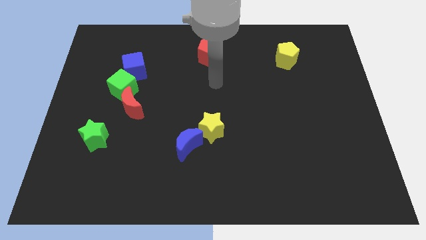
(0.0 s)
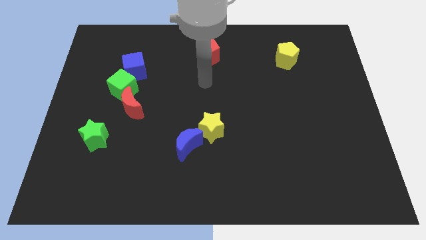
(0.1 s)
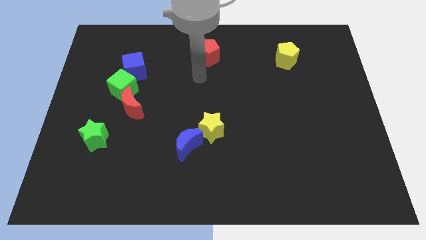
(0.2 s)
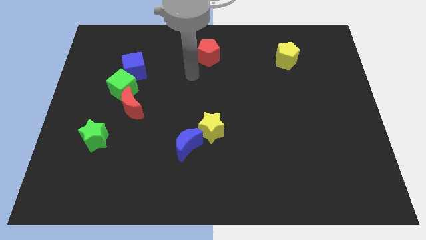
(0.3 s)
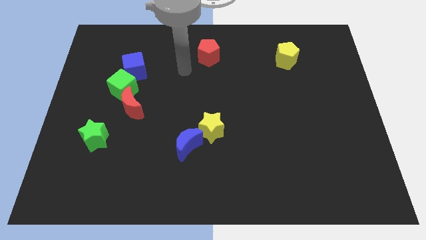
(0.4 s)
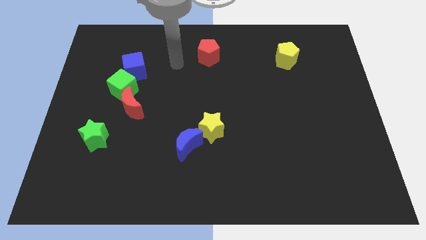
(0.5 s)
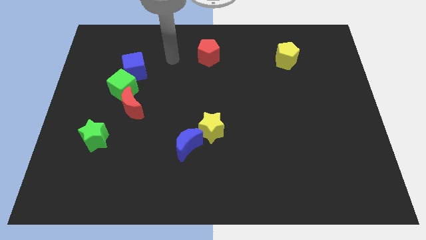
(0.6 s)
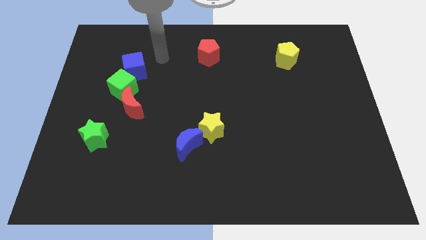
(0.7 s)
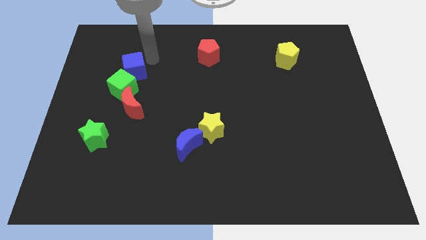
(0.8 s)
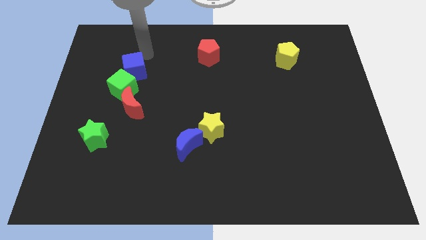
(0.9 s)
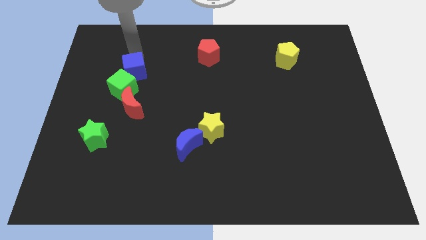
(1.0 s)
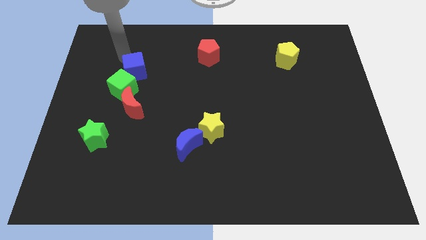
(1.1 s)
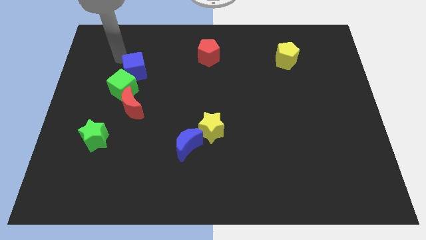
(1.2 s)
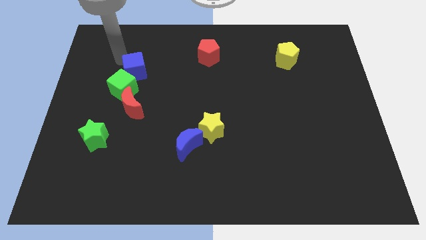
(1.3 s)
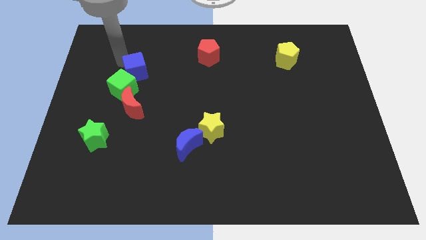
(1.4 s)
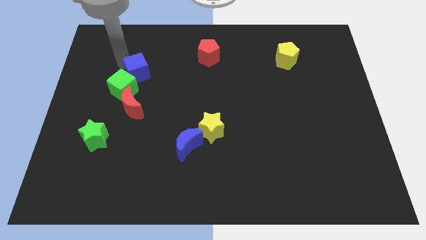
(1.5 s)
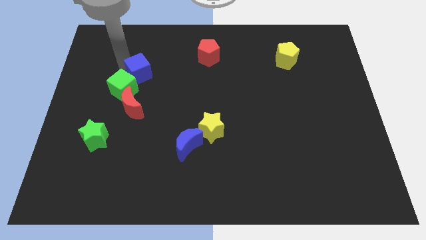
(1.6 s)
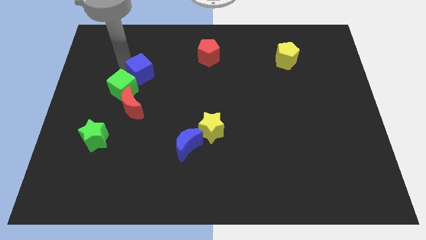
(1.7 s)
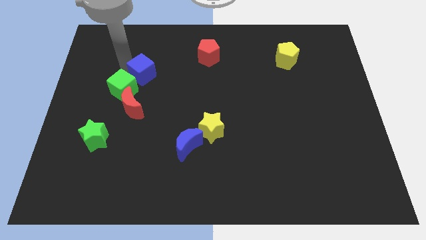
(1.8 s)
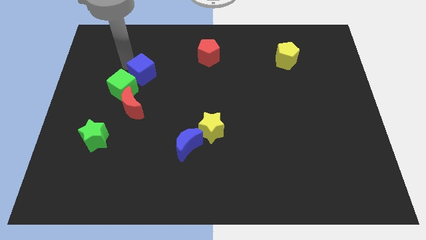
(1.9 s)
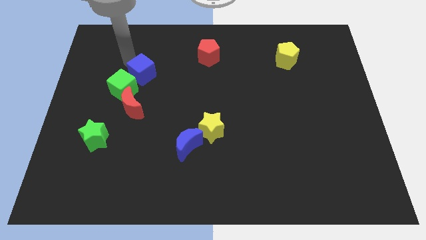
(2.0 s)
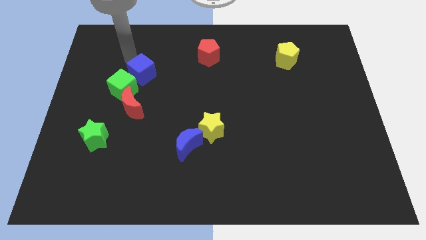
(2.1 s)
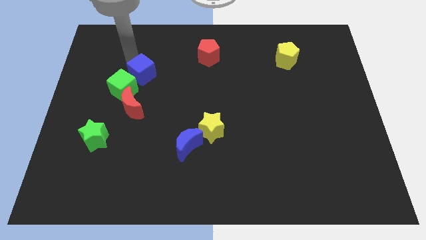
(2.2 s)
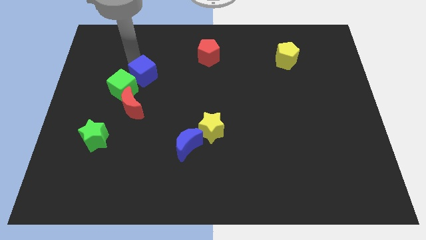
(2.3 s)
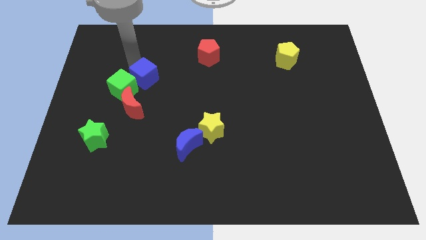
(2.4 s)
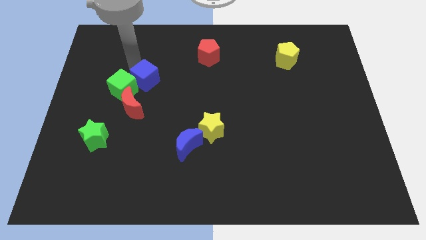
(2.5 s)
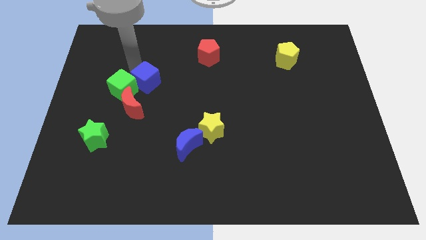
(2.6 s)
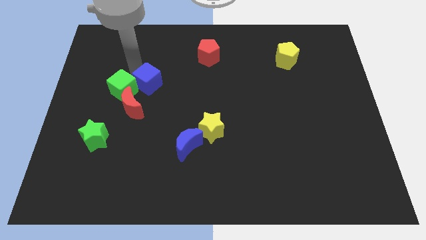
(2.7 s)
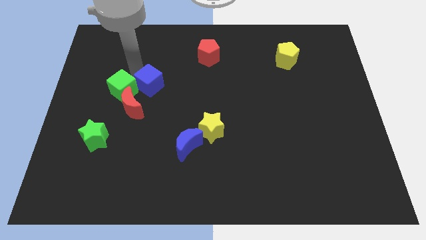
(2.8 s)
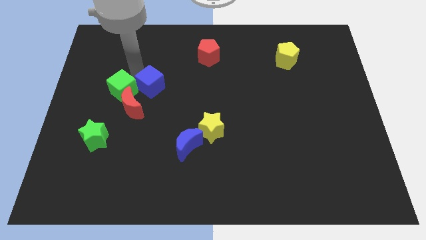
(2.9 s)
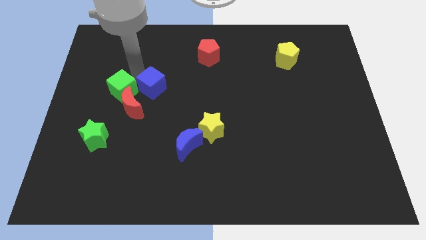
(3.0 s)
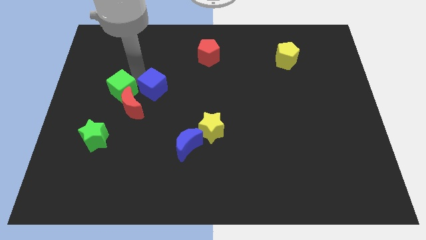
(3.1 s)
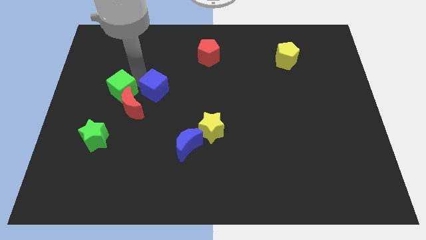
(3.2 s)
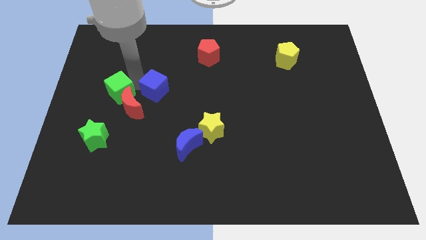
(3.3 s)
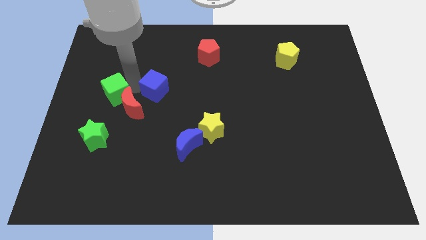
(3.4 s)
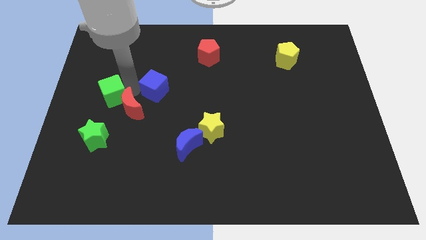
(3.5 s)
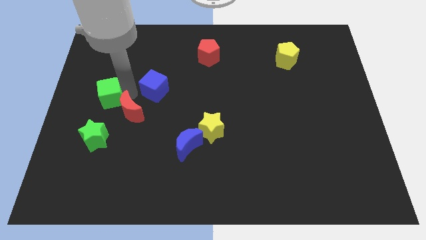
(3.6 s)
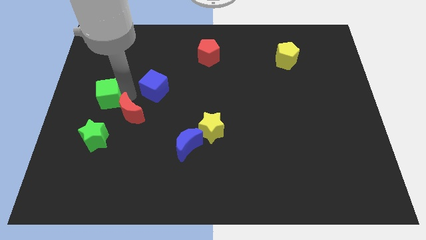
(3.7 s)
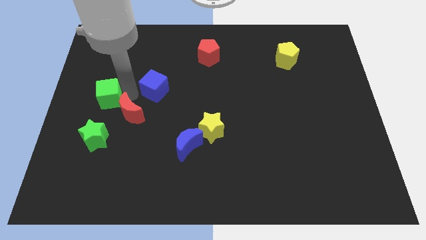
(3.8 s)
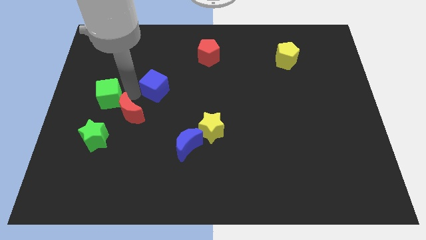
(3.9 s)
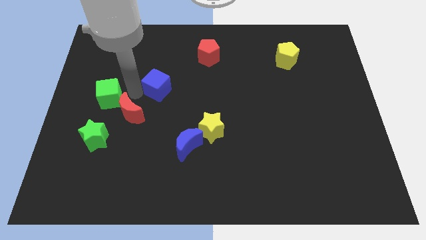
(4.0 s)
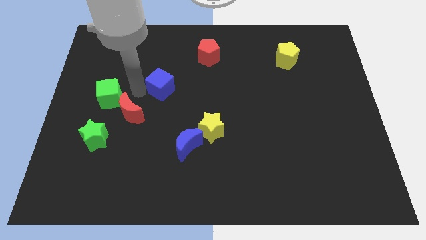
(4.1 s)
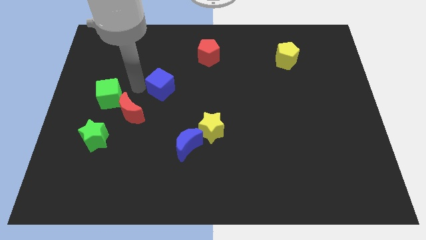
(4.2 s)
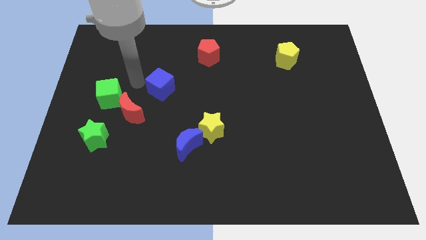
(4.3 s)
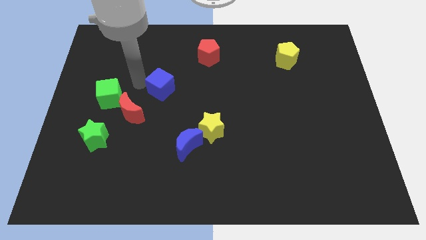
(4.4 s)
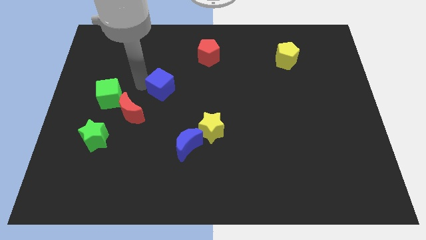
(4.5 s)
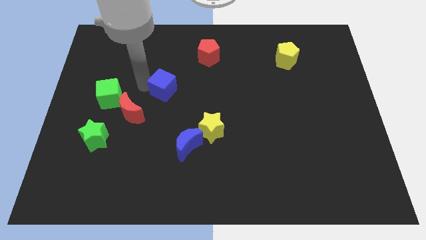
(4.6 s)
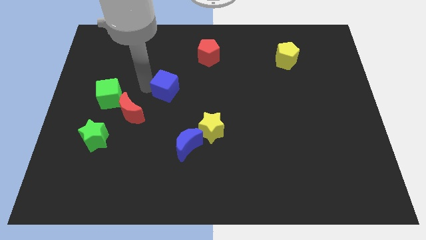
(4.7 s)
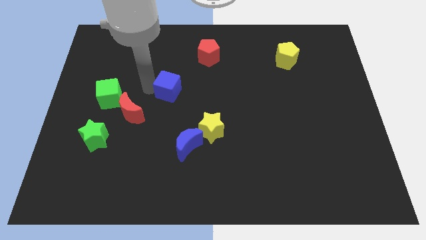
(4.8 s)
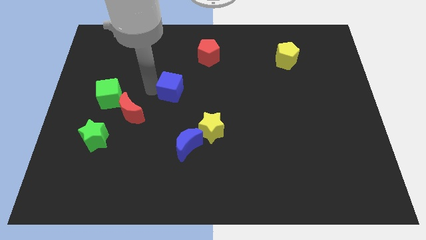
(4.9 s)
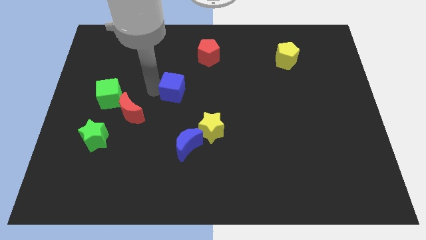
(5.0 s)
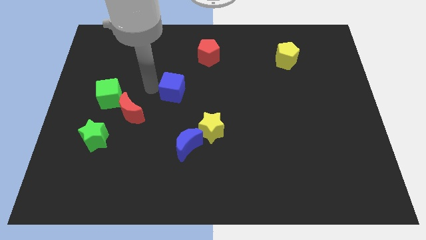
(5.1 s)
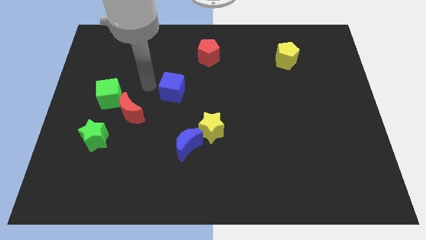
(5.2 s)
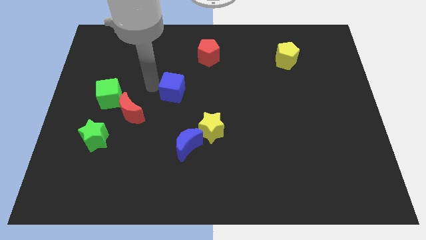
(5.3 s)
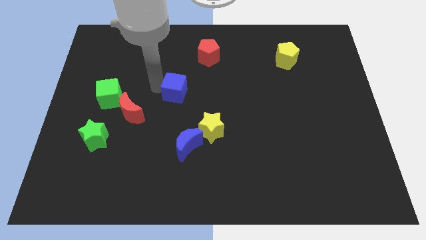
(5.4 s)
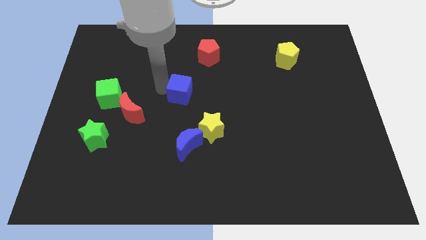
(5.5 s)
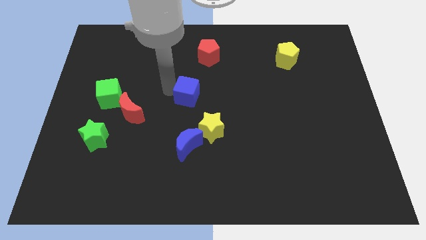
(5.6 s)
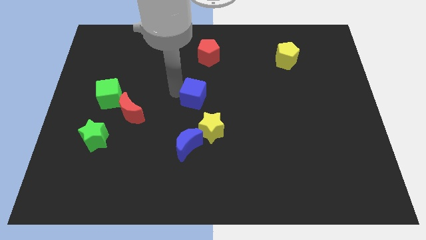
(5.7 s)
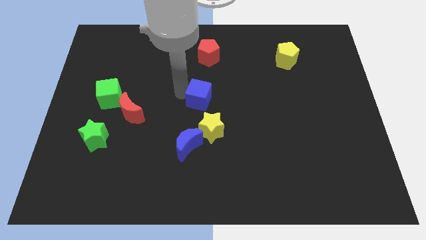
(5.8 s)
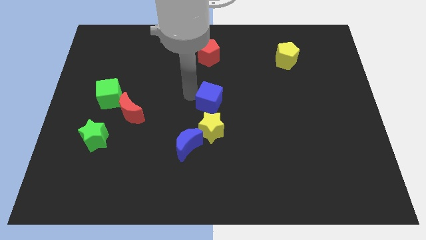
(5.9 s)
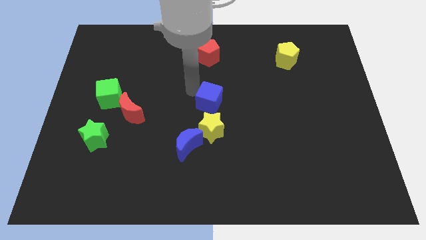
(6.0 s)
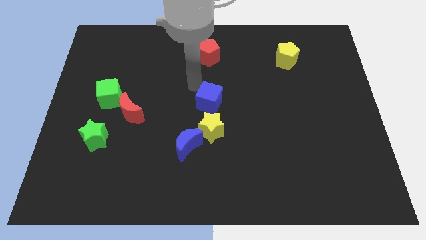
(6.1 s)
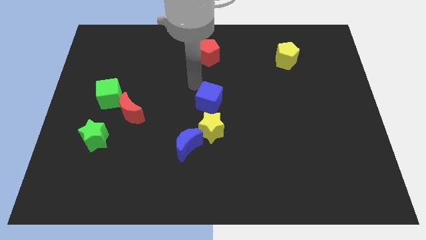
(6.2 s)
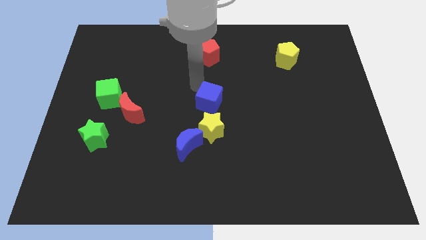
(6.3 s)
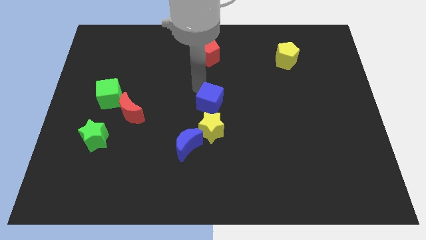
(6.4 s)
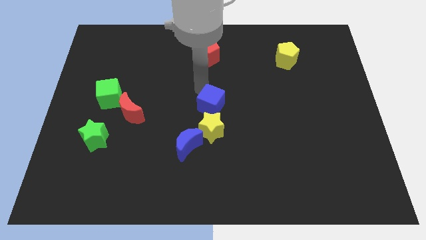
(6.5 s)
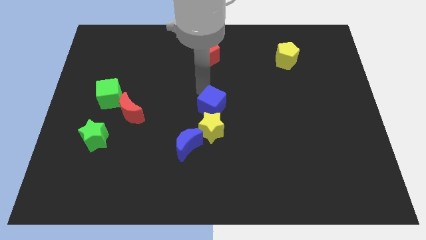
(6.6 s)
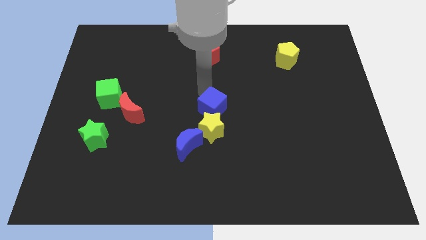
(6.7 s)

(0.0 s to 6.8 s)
move the blue cube to the top right side of the blue moon
